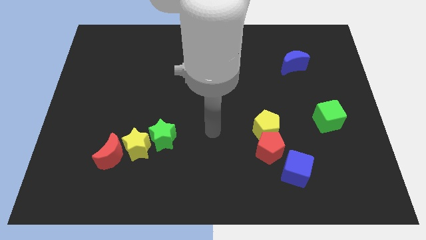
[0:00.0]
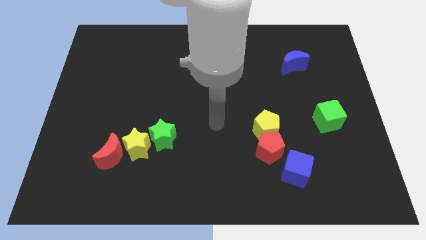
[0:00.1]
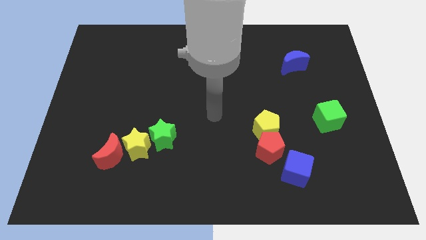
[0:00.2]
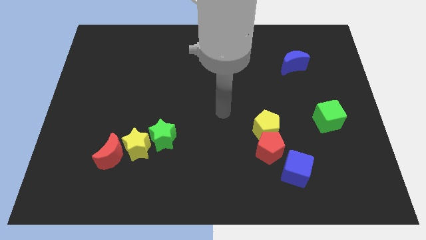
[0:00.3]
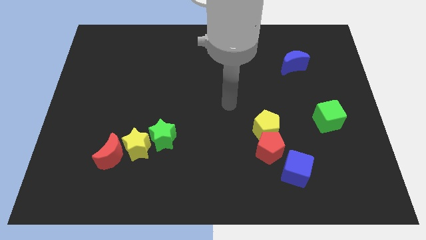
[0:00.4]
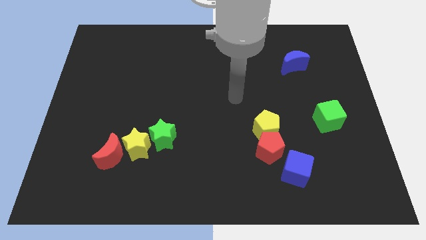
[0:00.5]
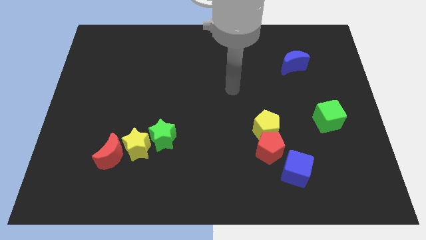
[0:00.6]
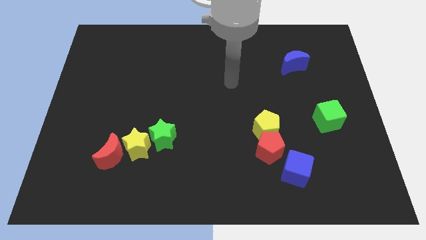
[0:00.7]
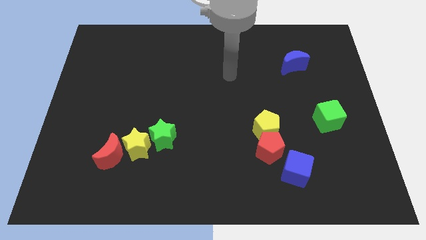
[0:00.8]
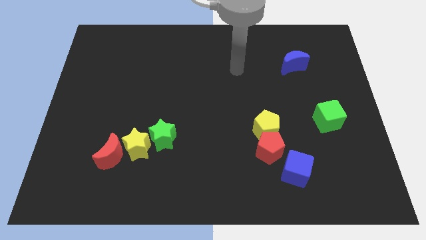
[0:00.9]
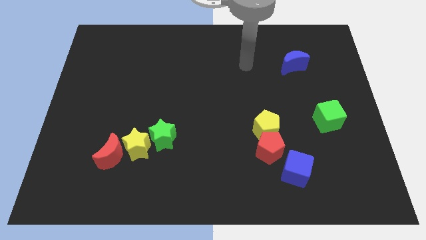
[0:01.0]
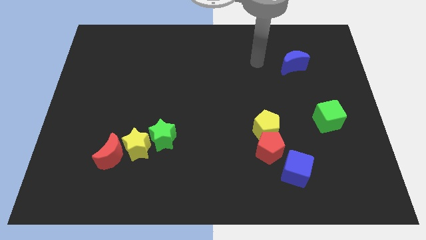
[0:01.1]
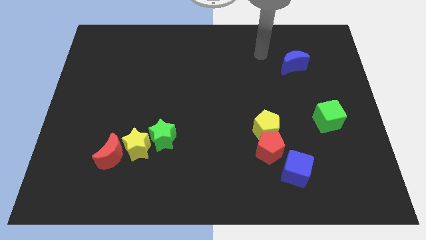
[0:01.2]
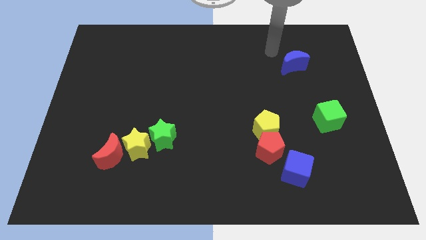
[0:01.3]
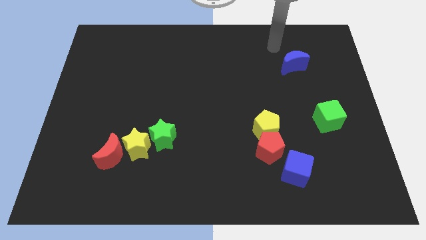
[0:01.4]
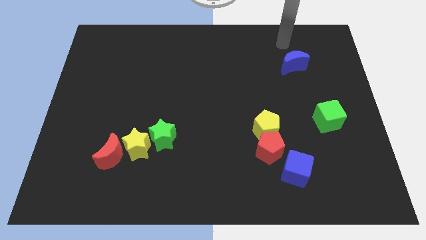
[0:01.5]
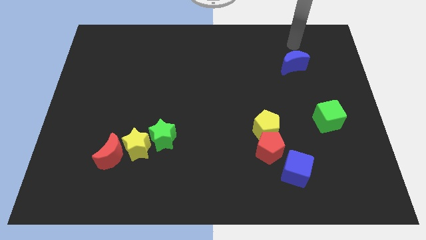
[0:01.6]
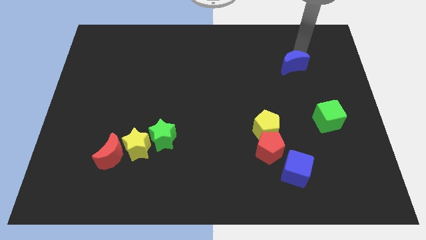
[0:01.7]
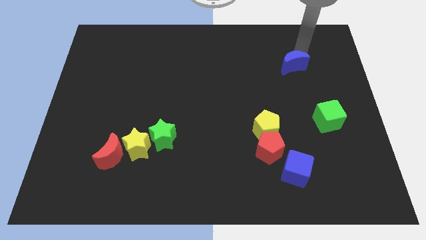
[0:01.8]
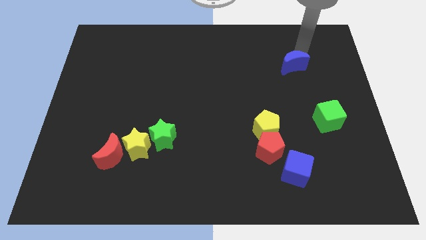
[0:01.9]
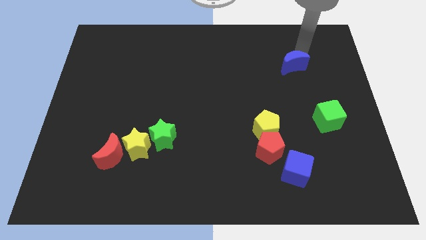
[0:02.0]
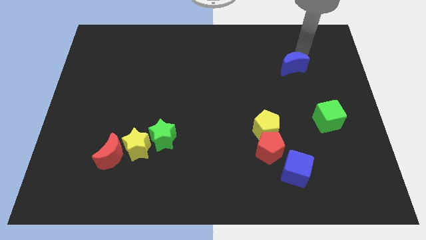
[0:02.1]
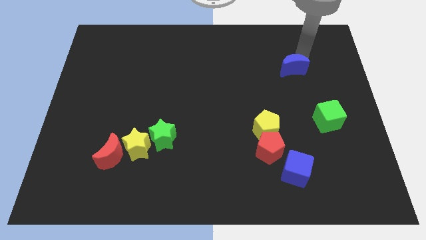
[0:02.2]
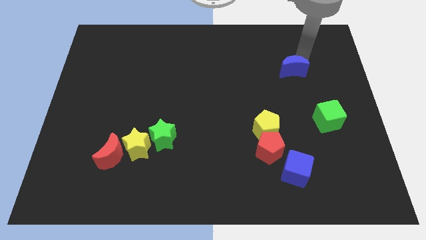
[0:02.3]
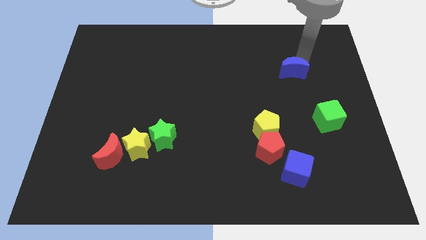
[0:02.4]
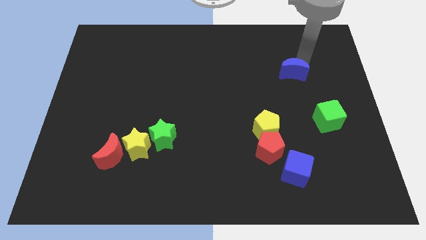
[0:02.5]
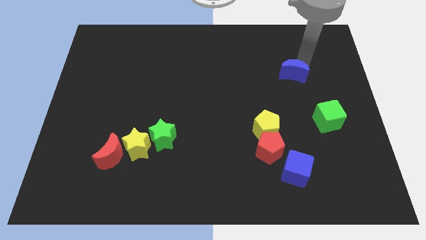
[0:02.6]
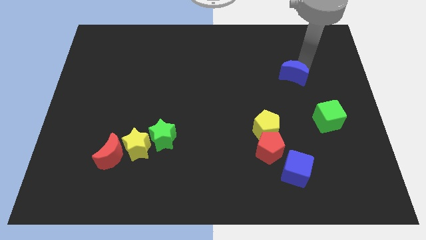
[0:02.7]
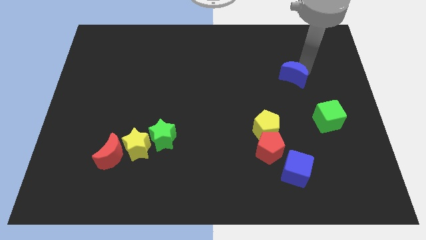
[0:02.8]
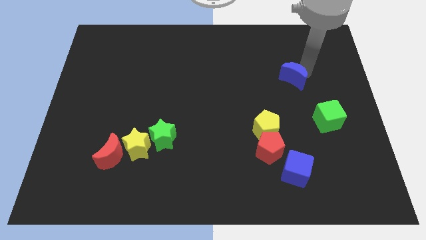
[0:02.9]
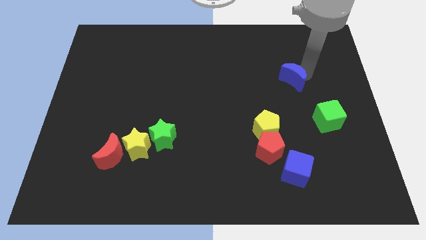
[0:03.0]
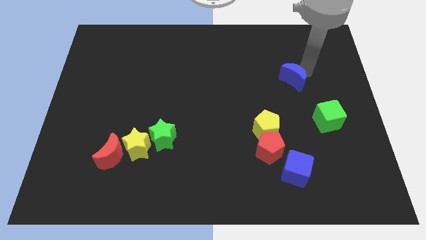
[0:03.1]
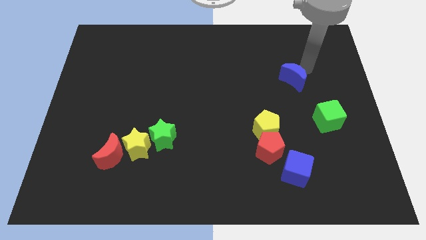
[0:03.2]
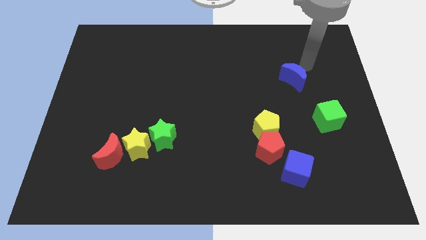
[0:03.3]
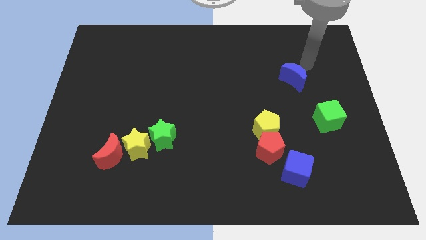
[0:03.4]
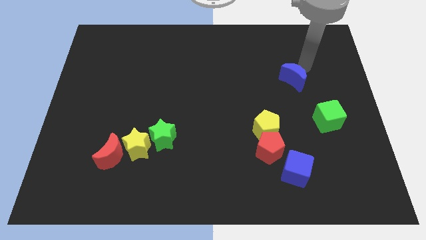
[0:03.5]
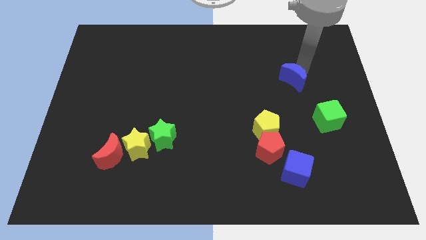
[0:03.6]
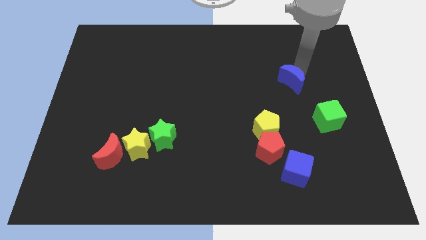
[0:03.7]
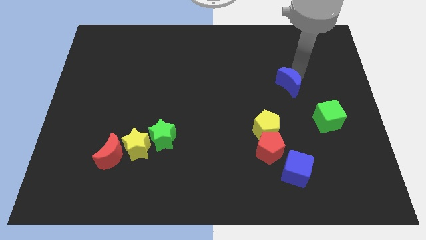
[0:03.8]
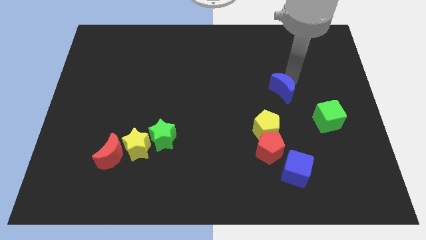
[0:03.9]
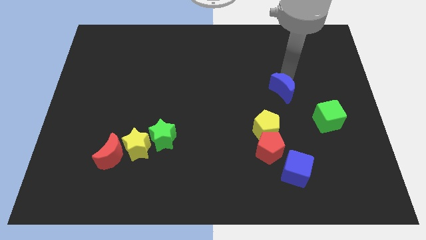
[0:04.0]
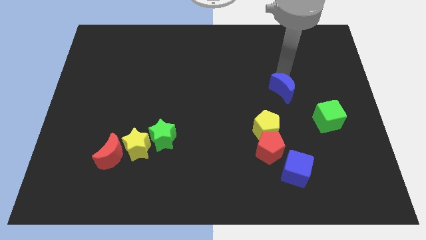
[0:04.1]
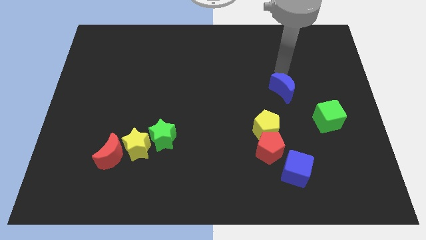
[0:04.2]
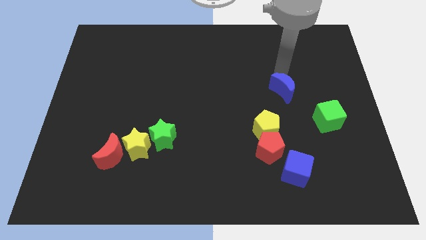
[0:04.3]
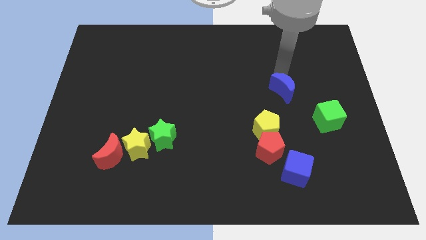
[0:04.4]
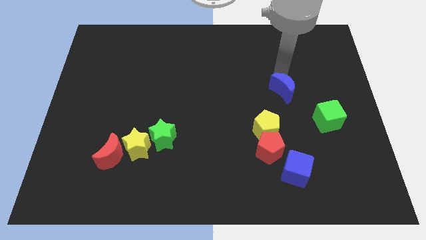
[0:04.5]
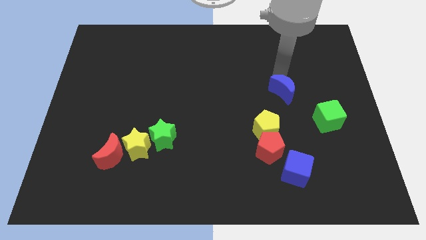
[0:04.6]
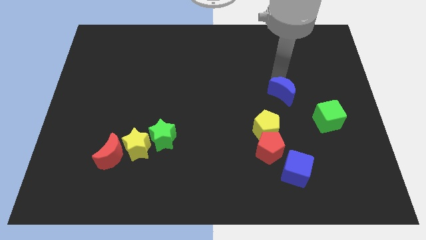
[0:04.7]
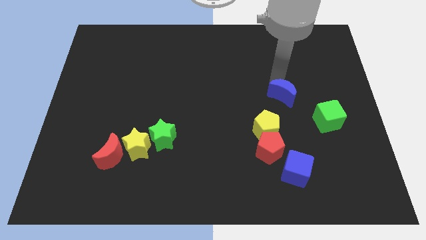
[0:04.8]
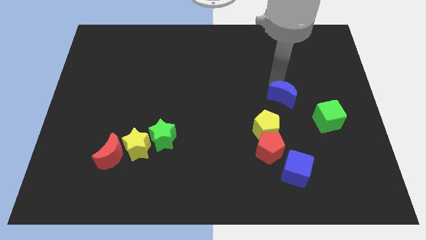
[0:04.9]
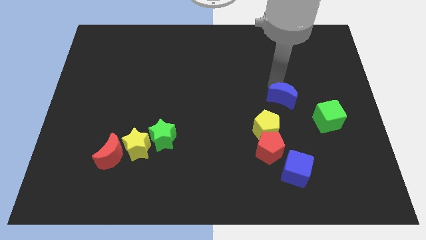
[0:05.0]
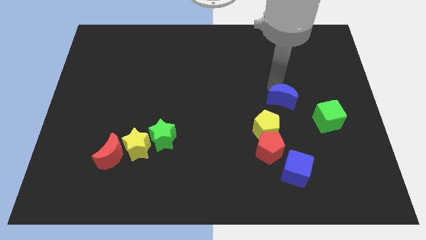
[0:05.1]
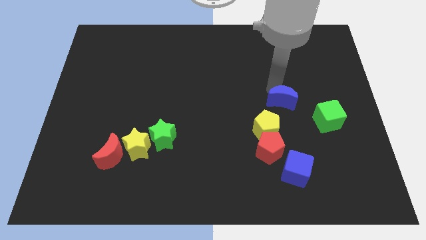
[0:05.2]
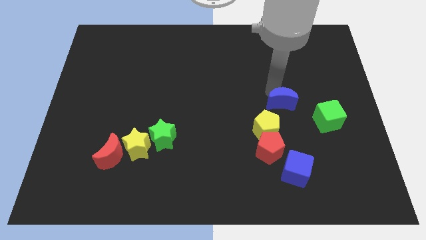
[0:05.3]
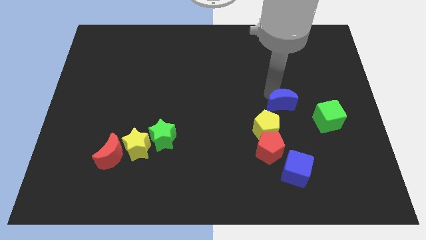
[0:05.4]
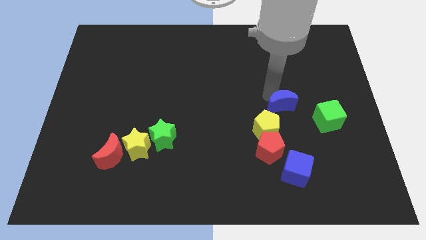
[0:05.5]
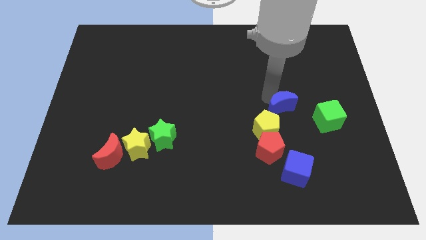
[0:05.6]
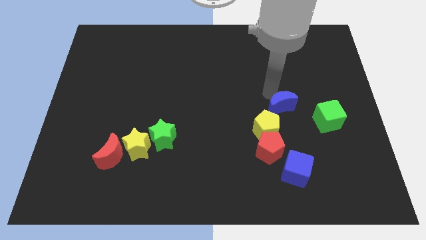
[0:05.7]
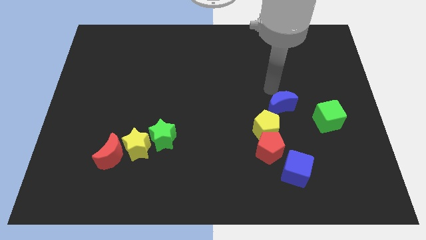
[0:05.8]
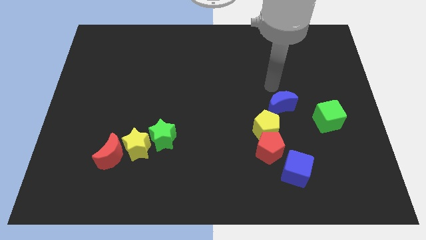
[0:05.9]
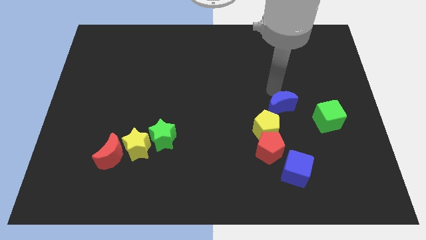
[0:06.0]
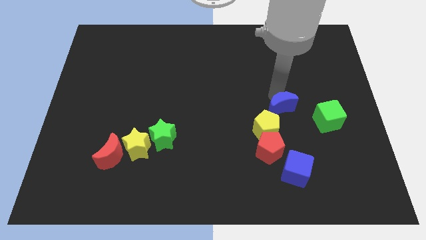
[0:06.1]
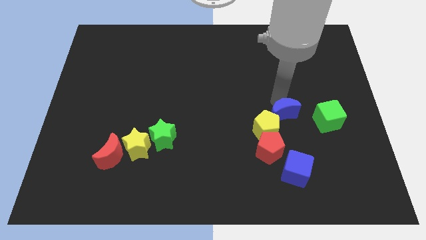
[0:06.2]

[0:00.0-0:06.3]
move the blue moon above the blue cube

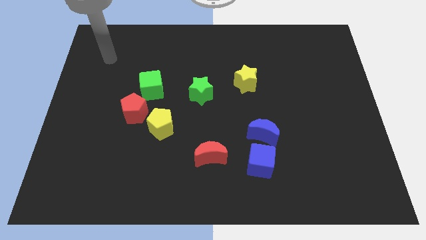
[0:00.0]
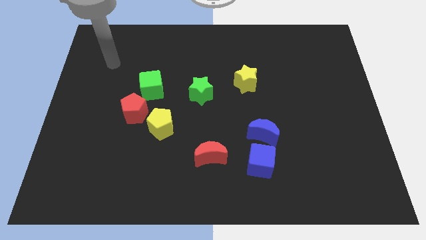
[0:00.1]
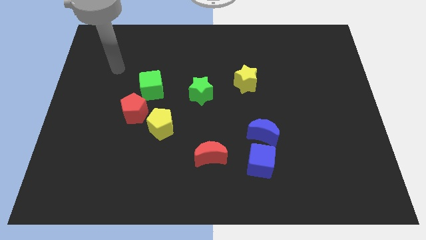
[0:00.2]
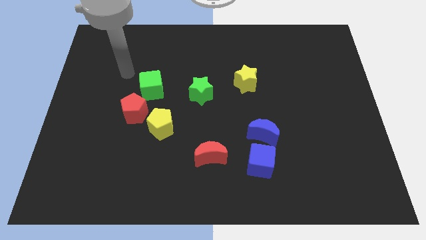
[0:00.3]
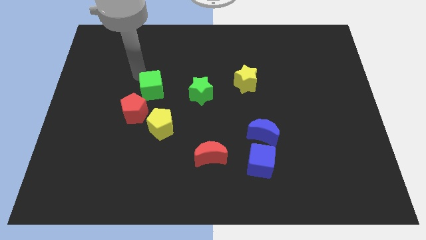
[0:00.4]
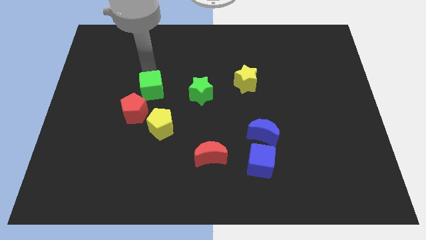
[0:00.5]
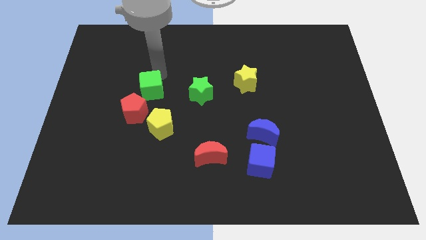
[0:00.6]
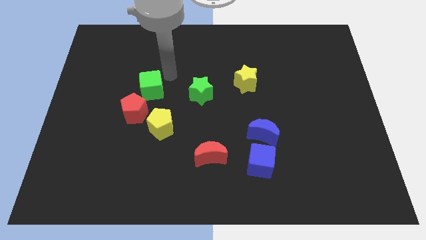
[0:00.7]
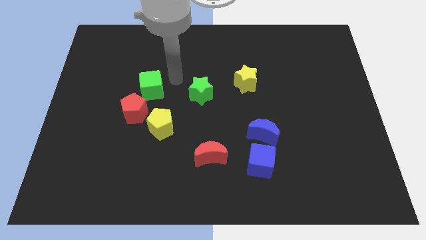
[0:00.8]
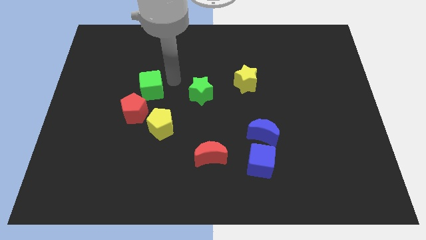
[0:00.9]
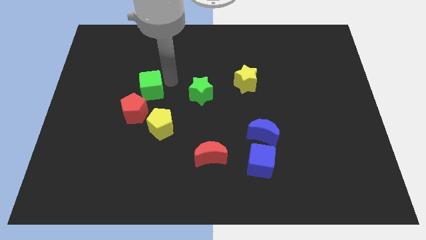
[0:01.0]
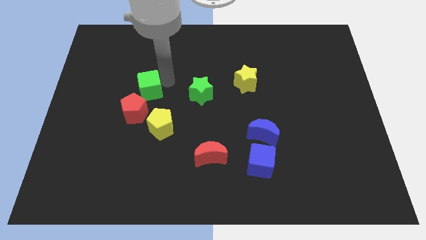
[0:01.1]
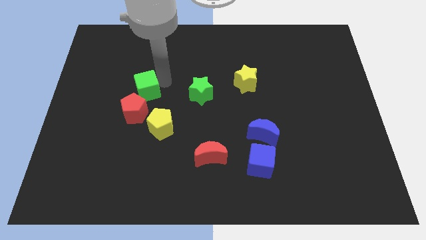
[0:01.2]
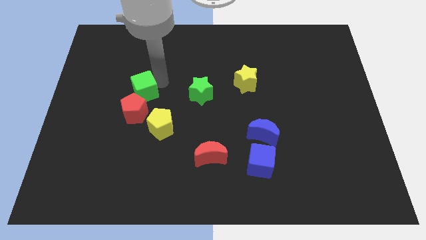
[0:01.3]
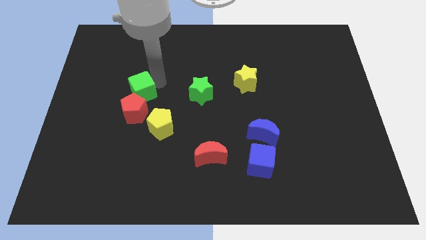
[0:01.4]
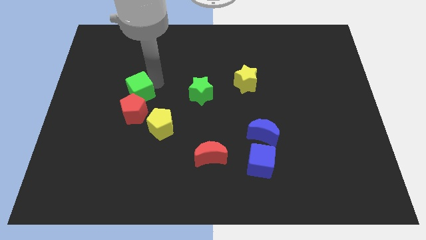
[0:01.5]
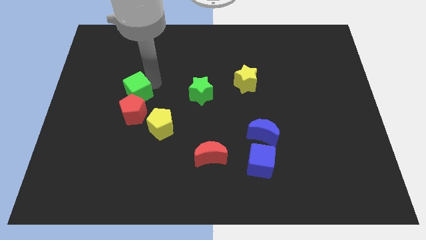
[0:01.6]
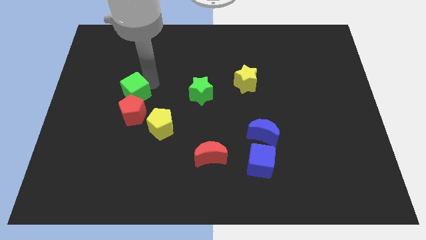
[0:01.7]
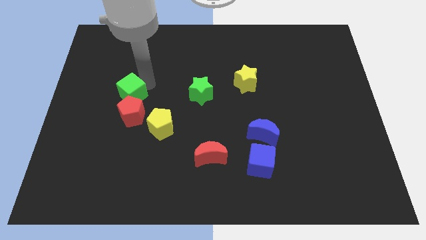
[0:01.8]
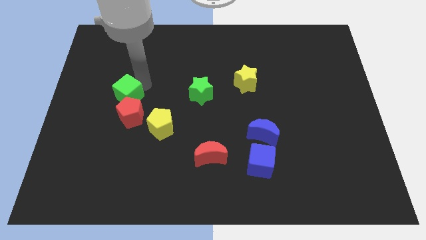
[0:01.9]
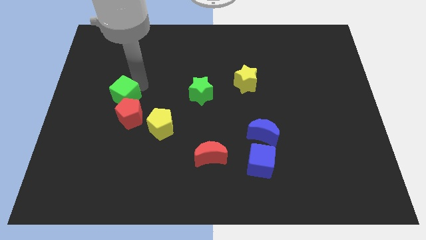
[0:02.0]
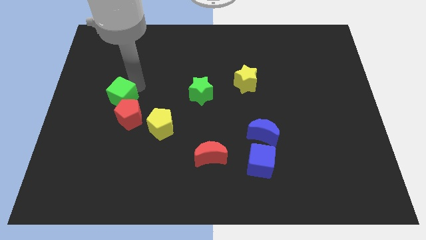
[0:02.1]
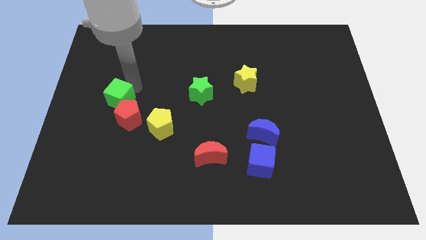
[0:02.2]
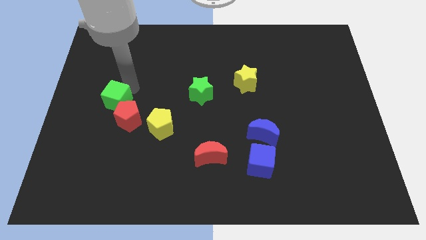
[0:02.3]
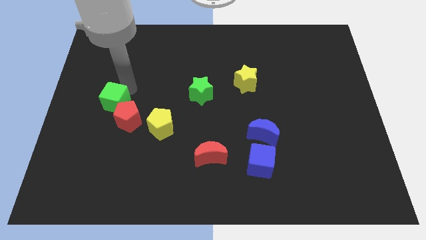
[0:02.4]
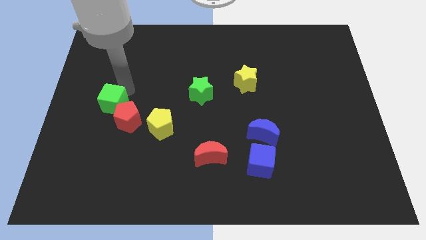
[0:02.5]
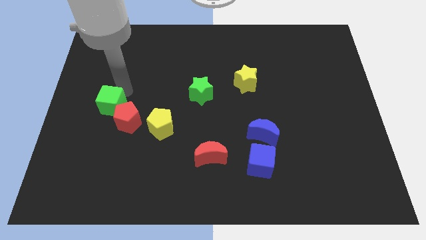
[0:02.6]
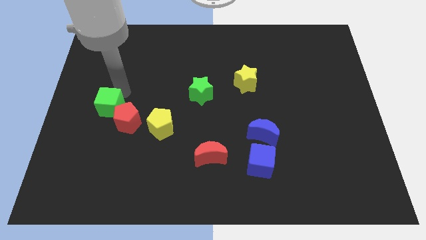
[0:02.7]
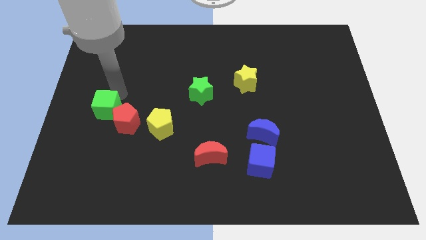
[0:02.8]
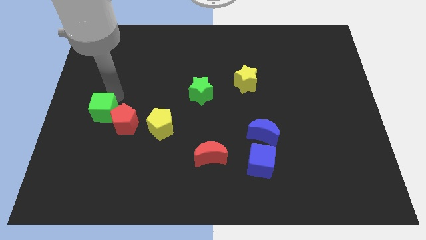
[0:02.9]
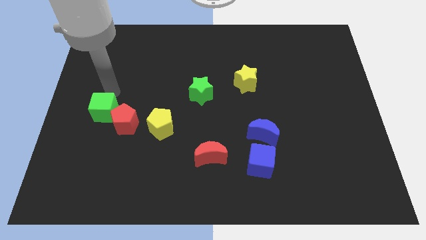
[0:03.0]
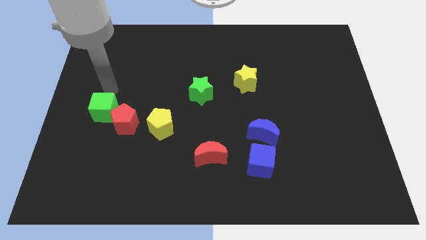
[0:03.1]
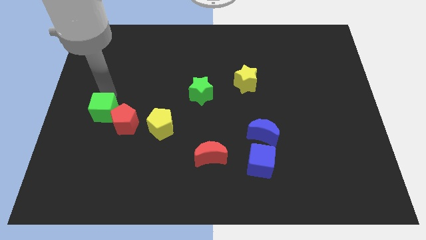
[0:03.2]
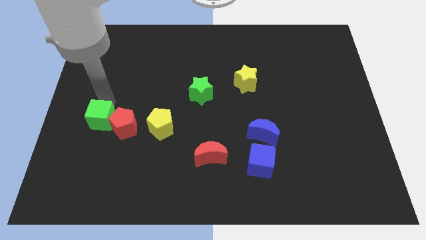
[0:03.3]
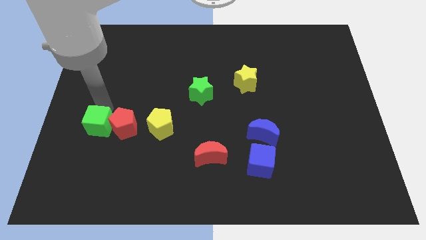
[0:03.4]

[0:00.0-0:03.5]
slide the green cube to the bottom left side of the red pentagon
